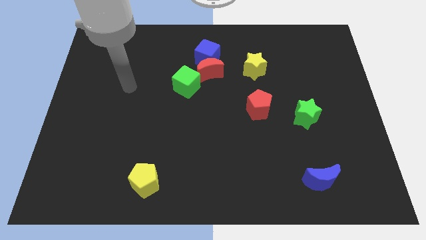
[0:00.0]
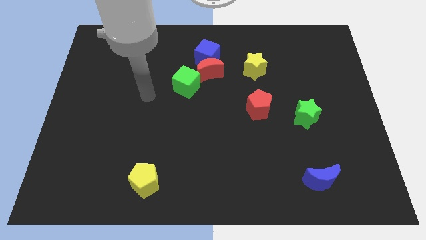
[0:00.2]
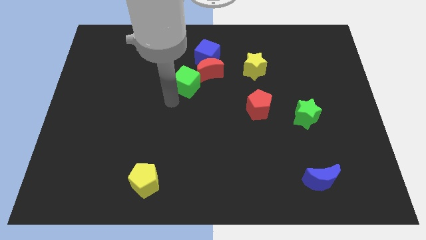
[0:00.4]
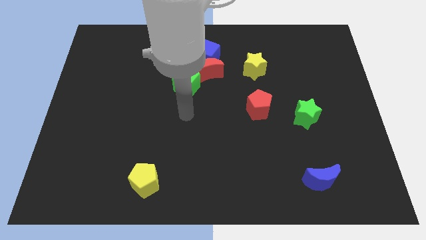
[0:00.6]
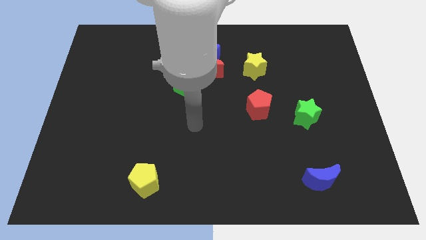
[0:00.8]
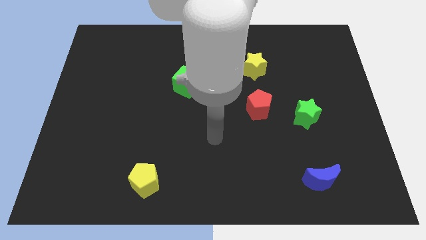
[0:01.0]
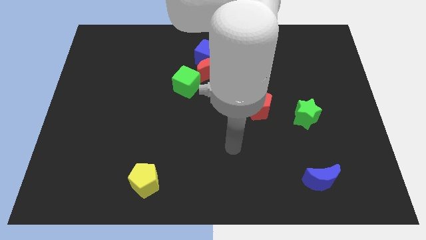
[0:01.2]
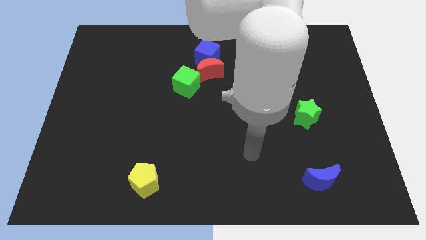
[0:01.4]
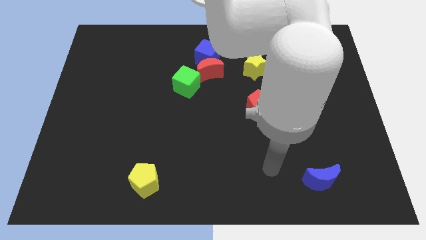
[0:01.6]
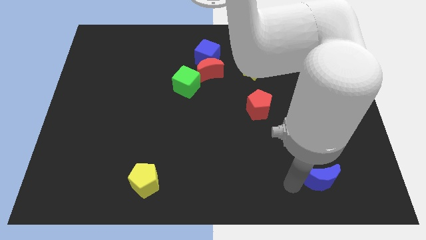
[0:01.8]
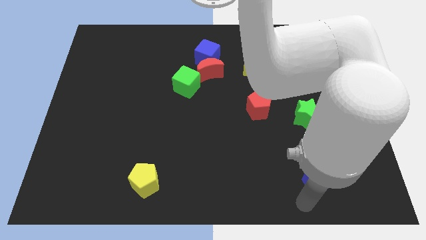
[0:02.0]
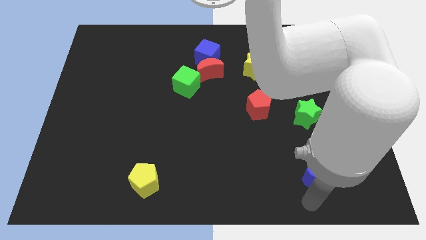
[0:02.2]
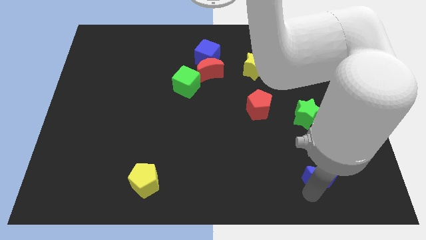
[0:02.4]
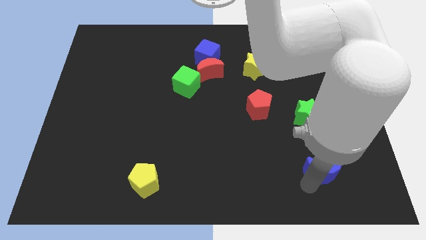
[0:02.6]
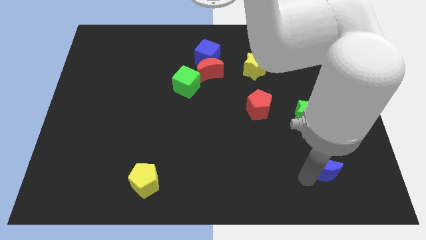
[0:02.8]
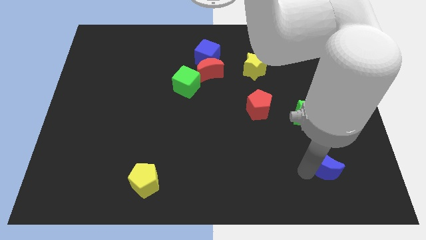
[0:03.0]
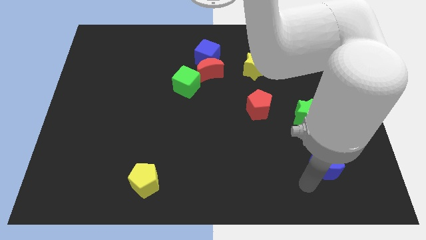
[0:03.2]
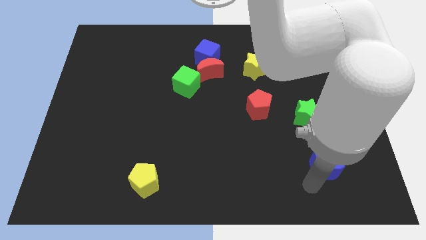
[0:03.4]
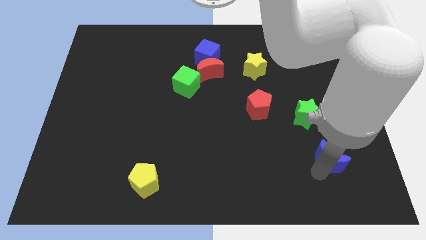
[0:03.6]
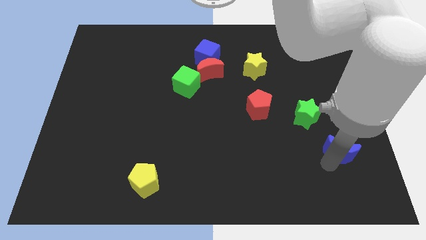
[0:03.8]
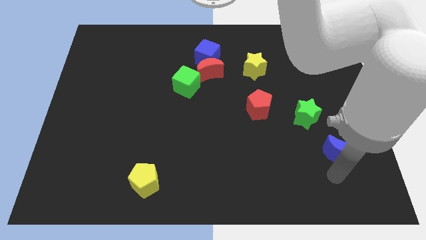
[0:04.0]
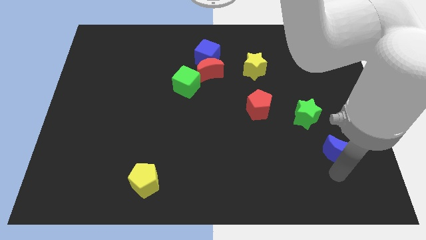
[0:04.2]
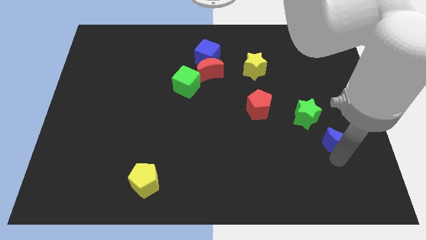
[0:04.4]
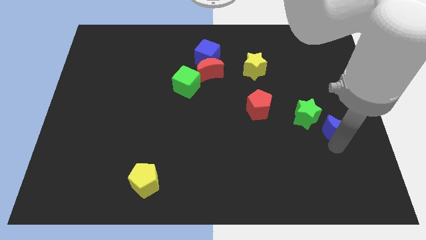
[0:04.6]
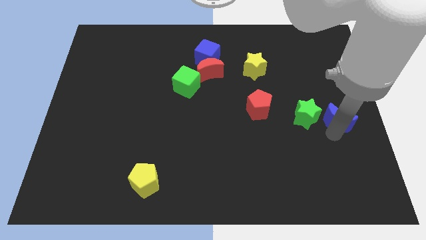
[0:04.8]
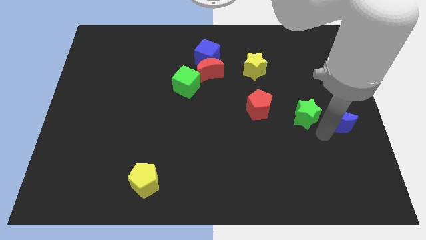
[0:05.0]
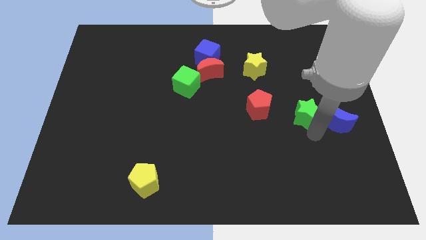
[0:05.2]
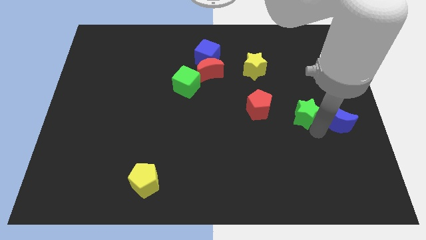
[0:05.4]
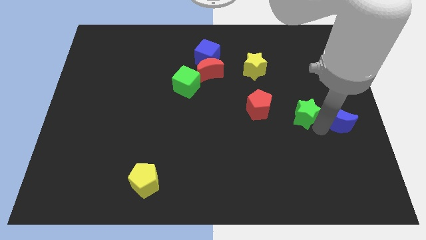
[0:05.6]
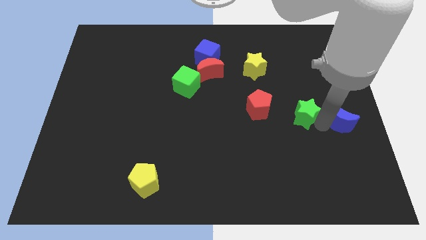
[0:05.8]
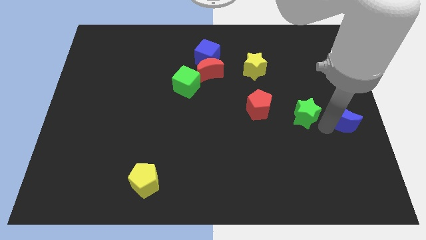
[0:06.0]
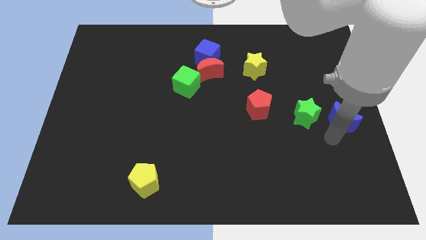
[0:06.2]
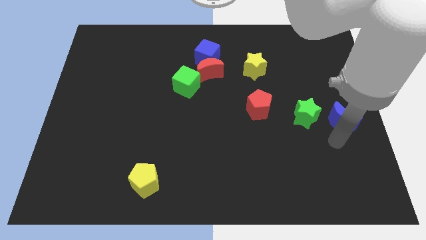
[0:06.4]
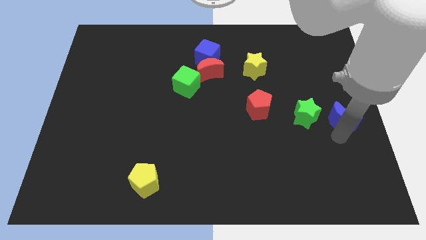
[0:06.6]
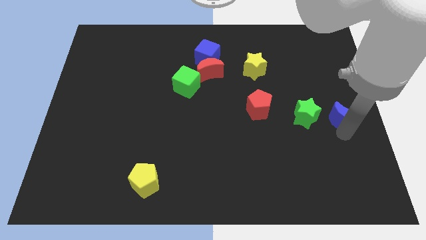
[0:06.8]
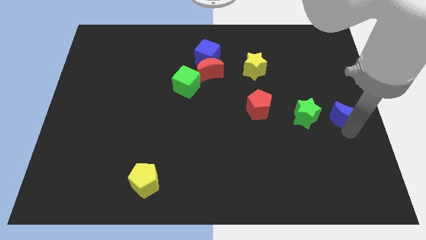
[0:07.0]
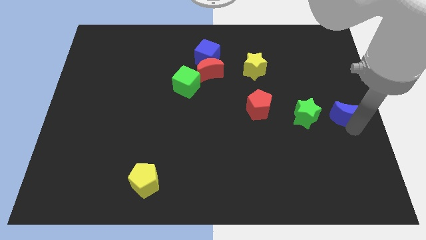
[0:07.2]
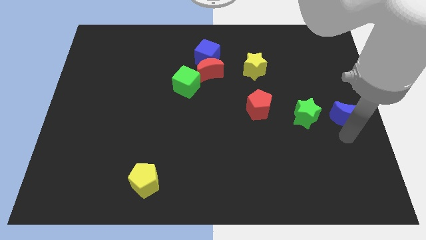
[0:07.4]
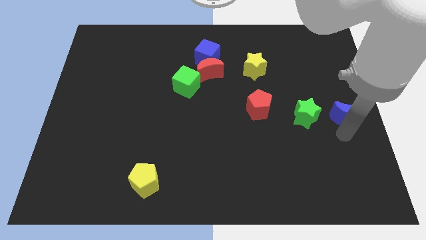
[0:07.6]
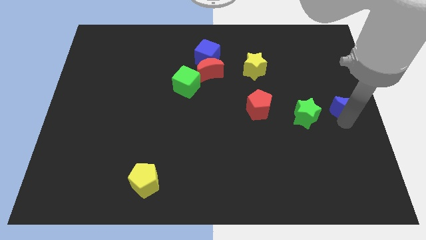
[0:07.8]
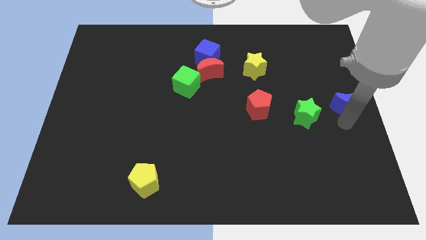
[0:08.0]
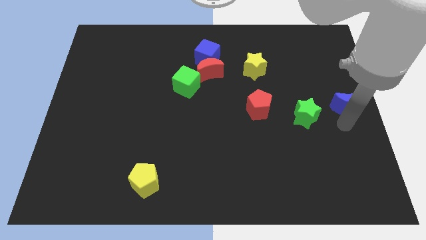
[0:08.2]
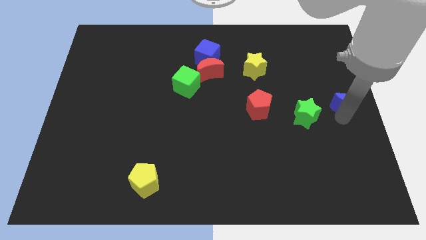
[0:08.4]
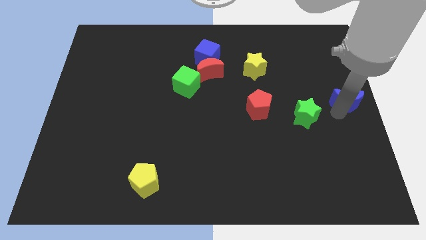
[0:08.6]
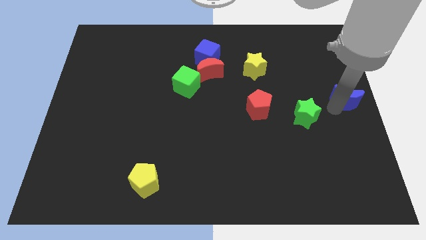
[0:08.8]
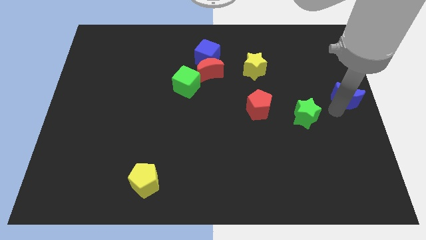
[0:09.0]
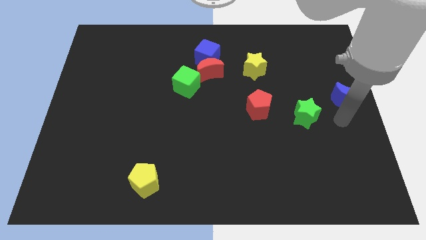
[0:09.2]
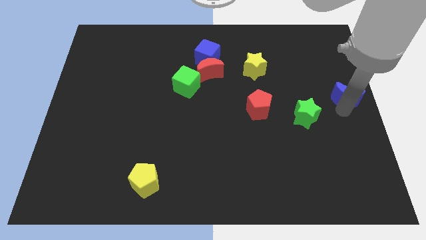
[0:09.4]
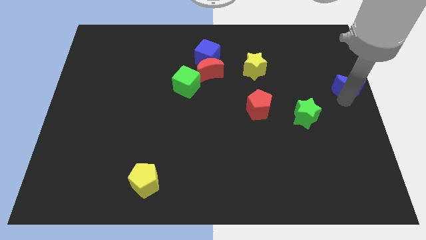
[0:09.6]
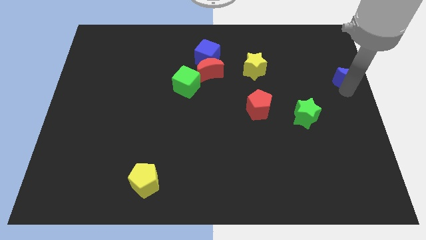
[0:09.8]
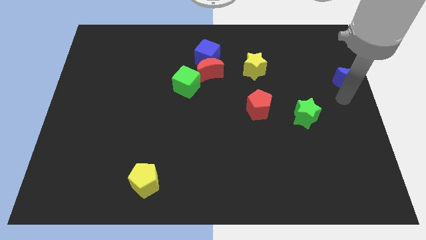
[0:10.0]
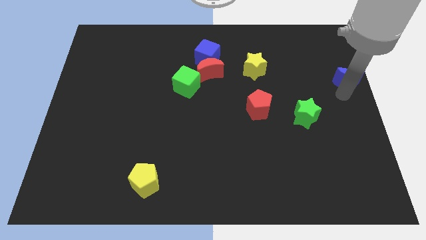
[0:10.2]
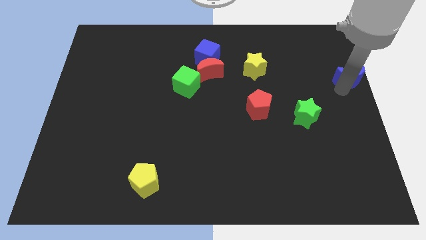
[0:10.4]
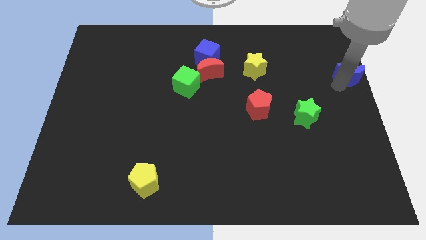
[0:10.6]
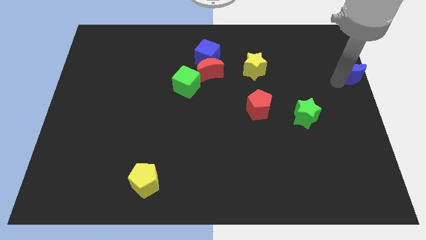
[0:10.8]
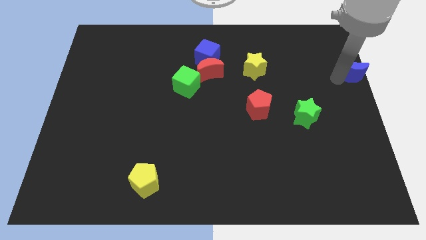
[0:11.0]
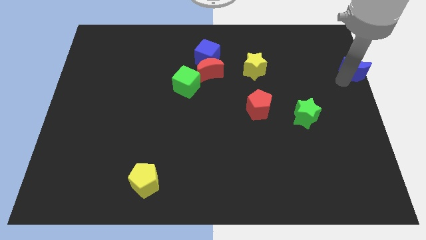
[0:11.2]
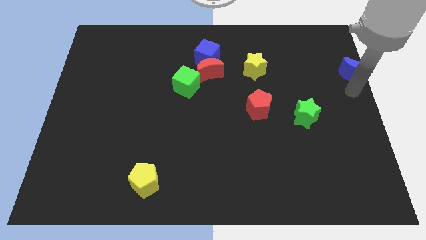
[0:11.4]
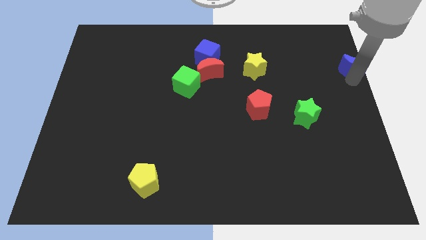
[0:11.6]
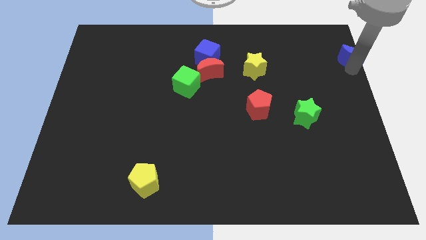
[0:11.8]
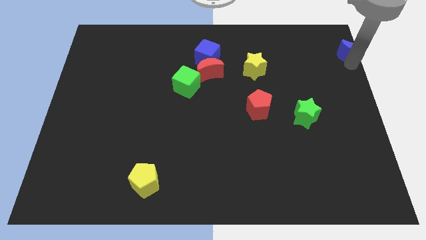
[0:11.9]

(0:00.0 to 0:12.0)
put the blue moon to the top right of the board

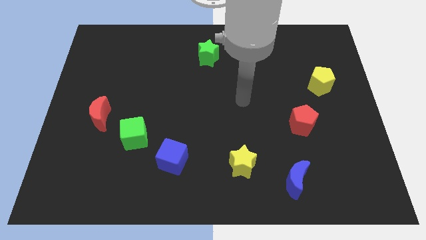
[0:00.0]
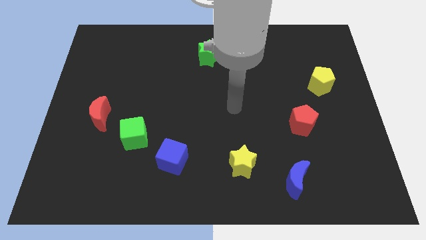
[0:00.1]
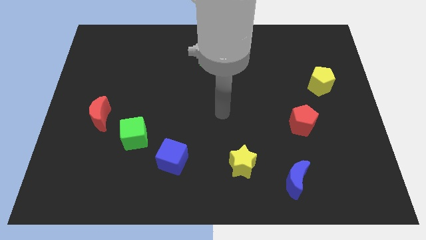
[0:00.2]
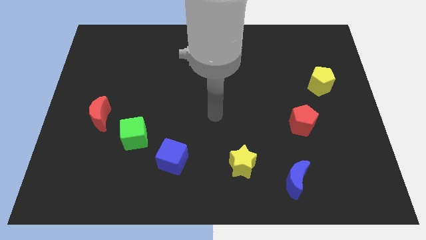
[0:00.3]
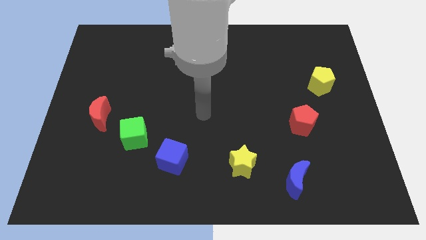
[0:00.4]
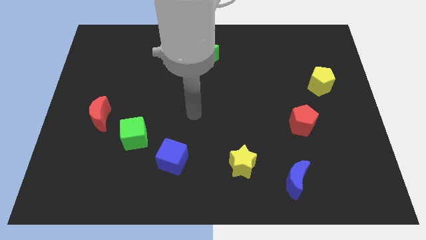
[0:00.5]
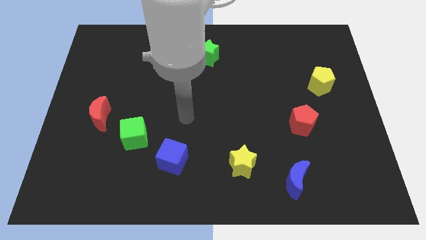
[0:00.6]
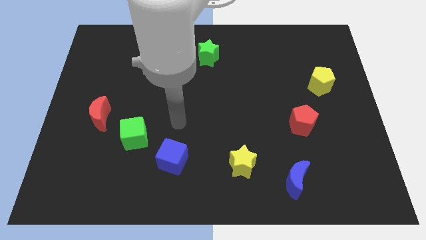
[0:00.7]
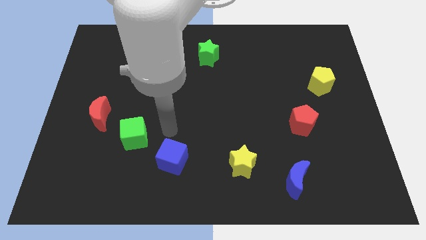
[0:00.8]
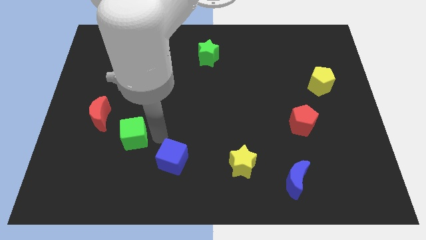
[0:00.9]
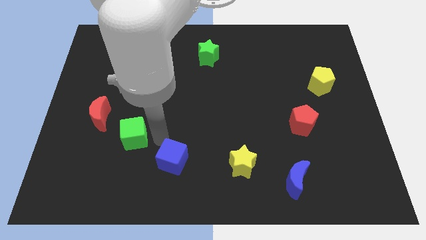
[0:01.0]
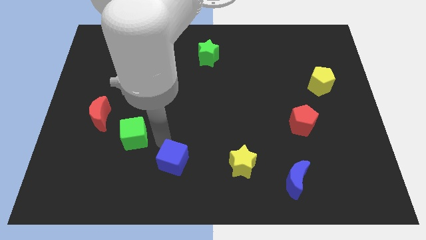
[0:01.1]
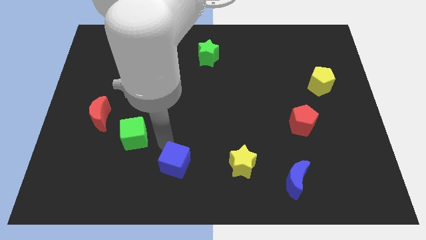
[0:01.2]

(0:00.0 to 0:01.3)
put the blue cube to the bottom
